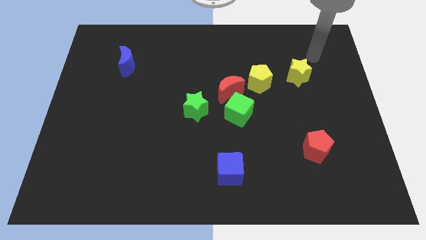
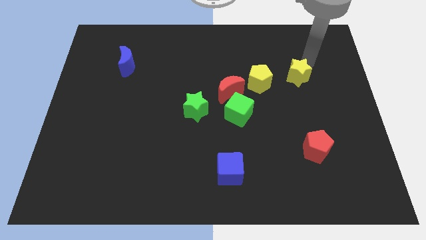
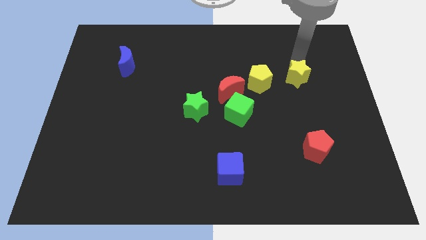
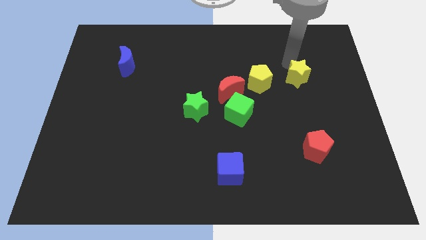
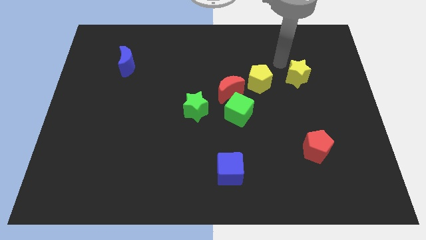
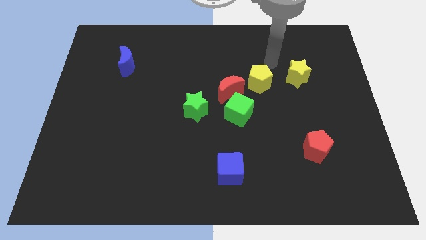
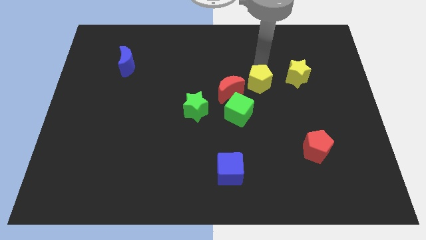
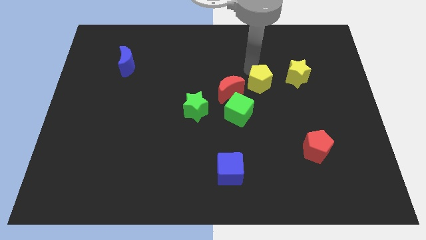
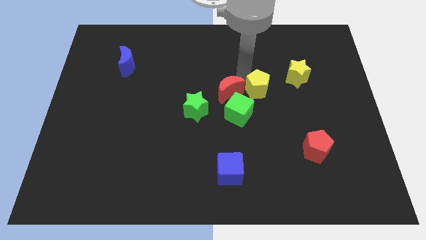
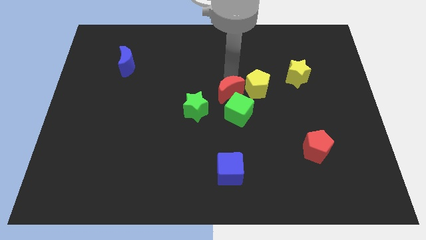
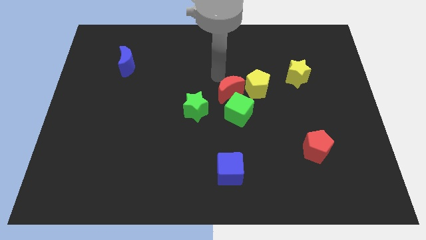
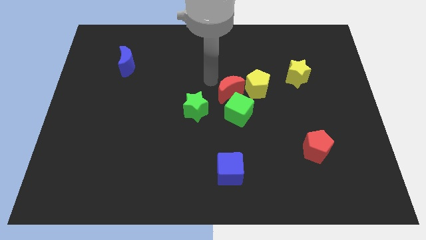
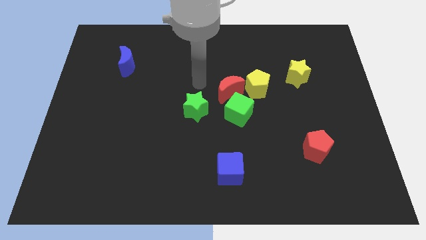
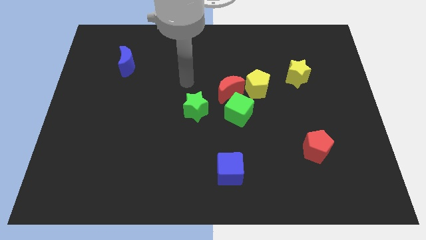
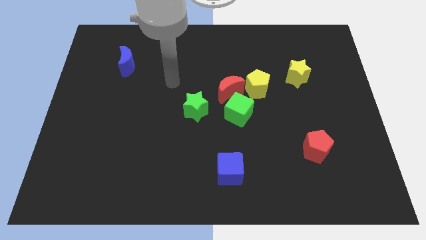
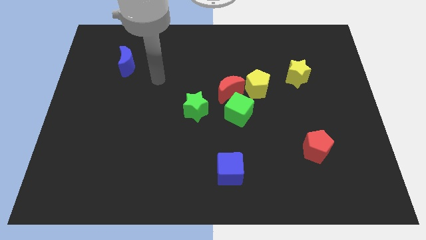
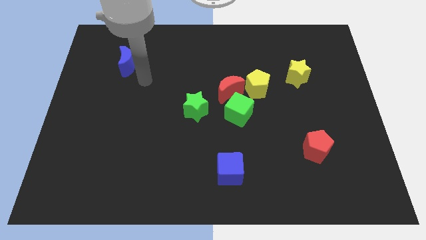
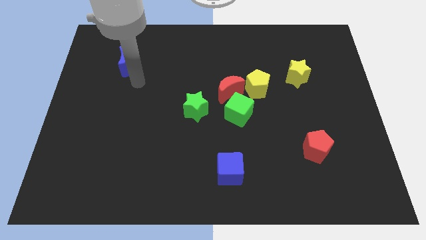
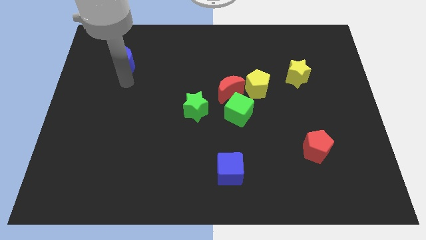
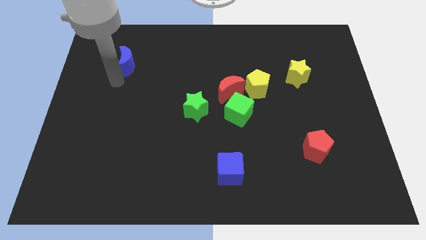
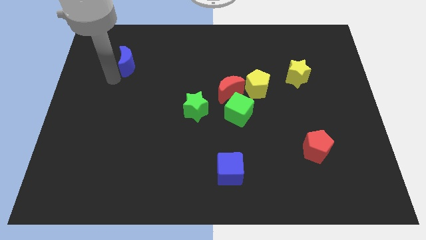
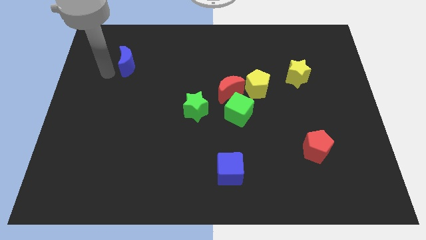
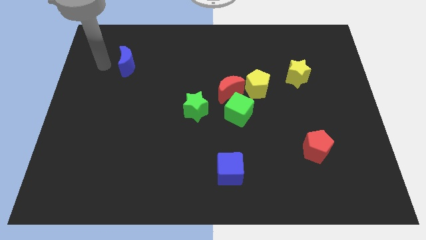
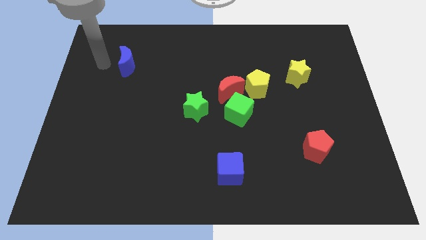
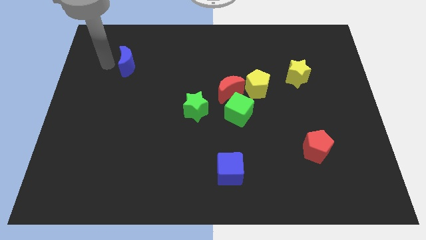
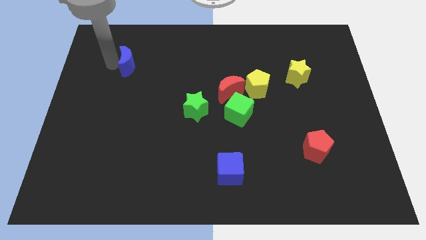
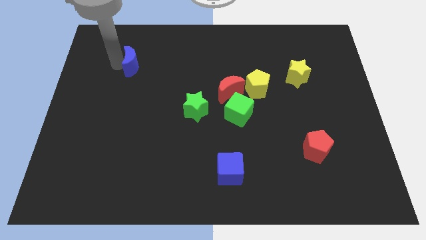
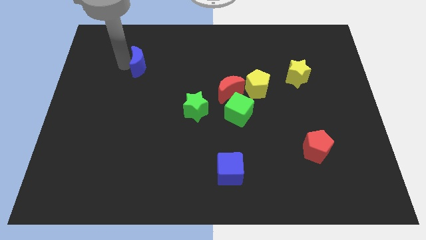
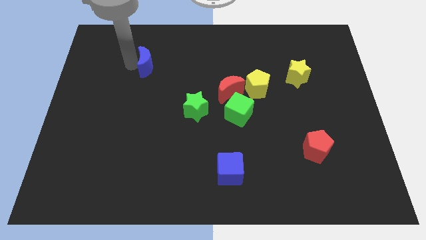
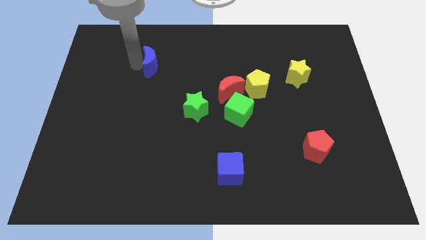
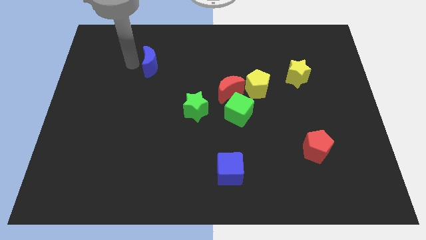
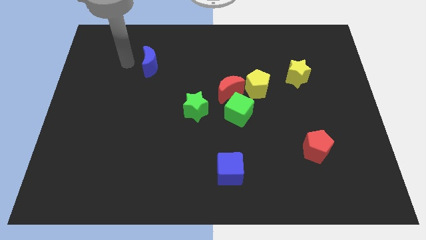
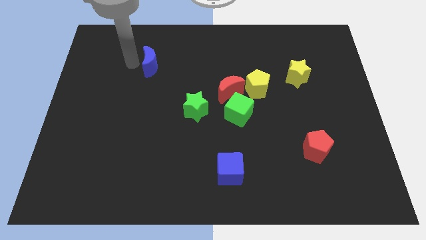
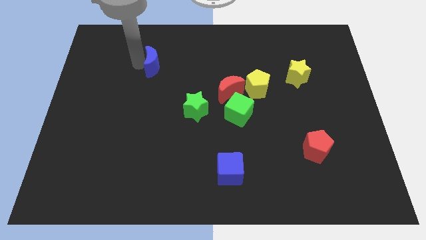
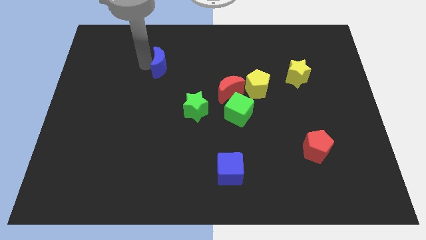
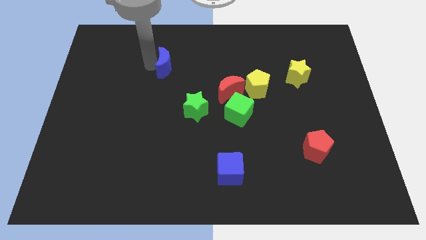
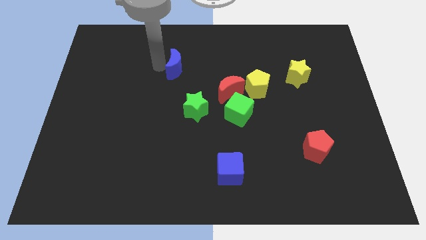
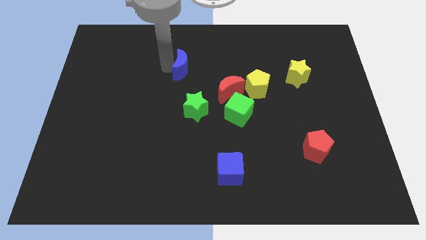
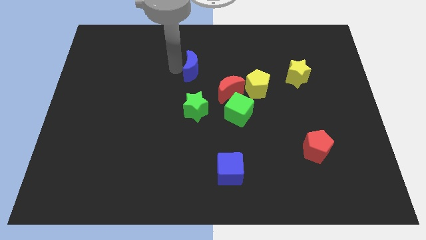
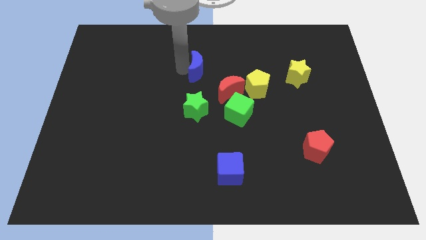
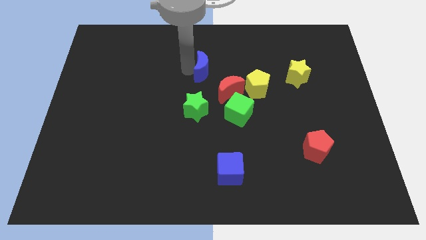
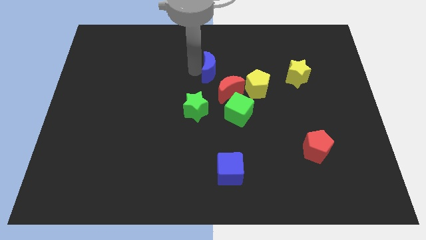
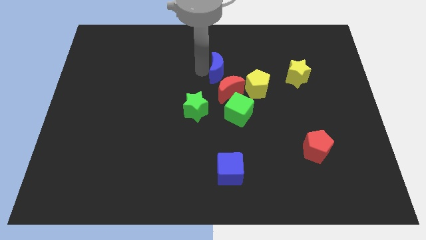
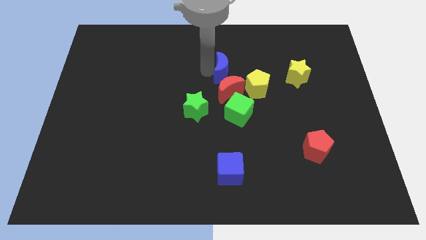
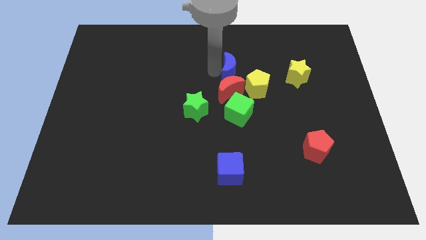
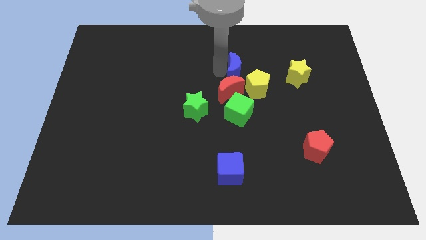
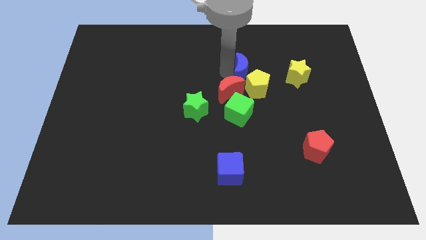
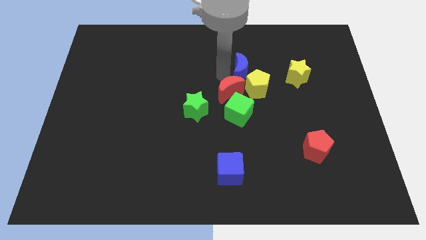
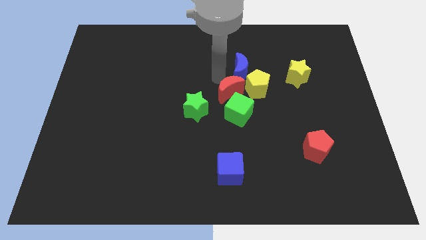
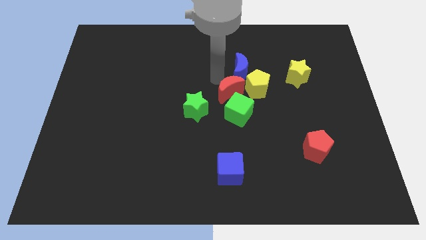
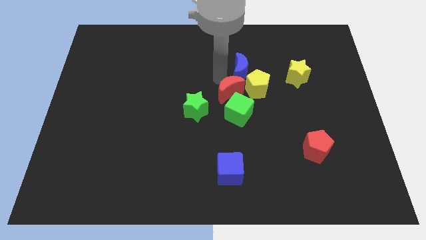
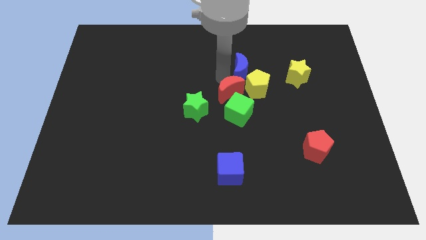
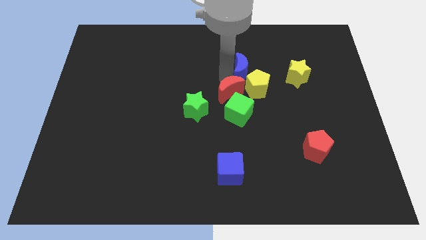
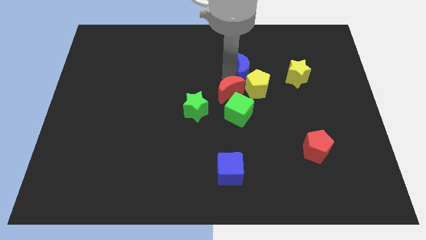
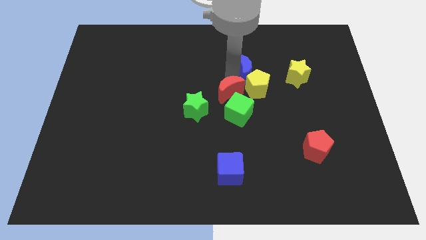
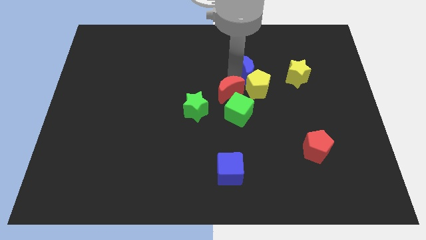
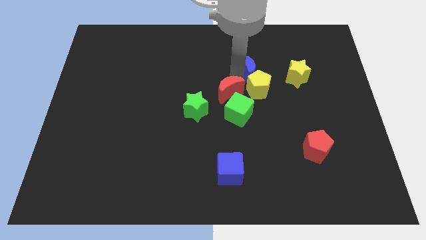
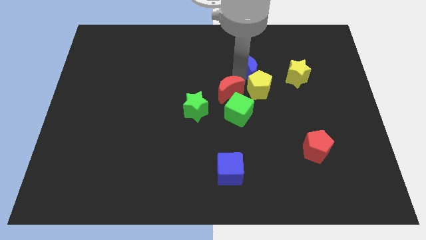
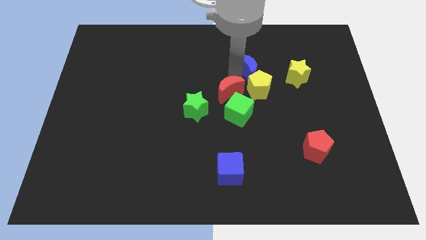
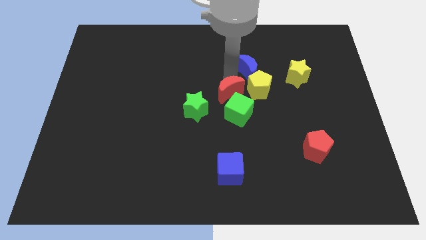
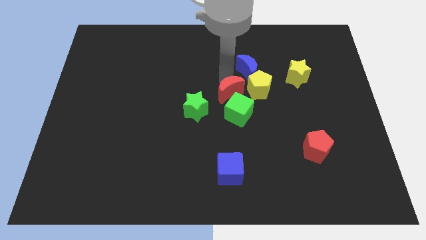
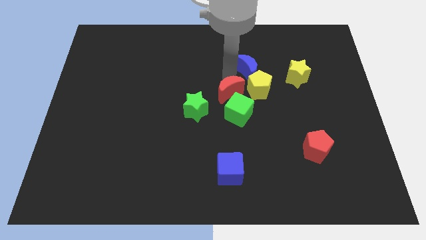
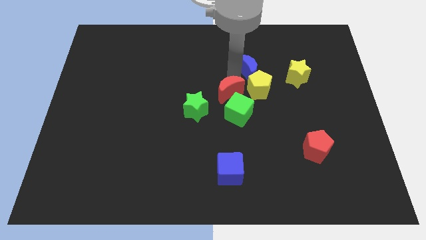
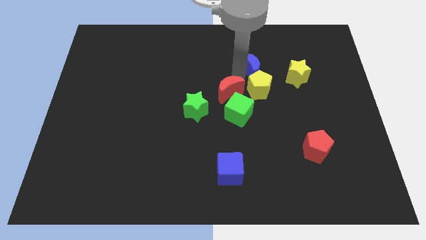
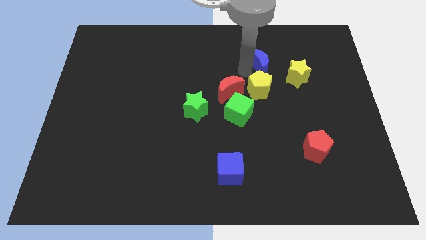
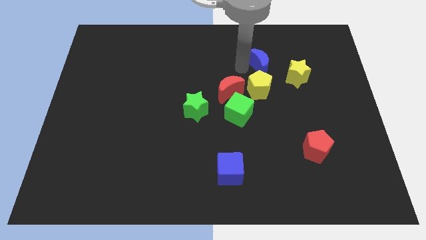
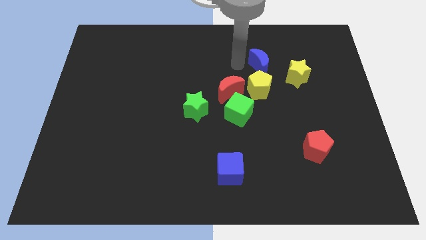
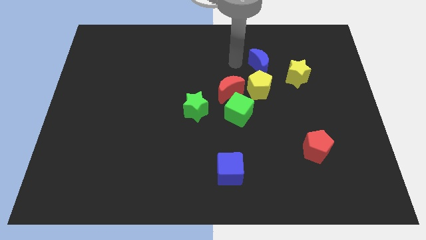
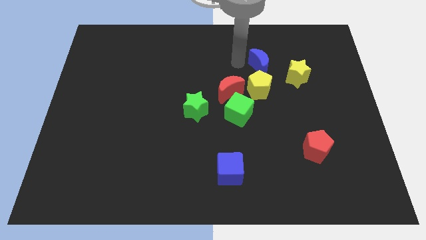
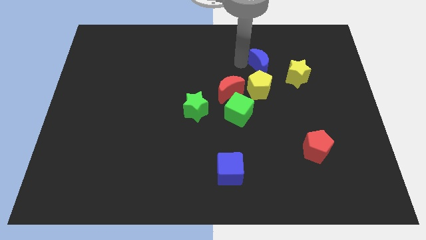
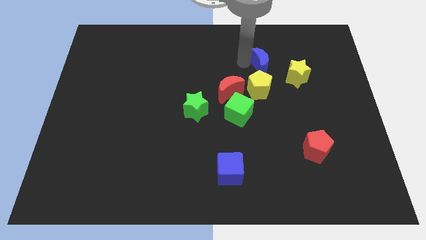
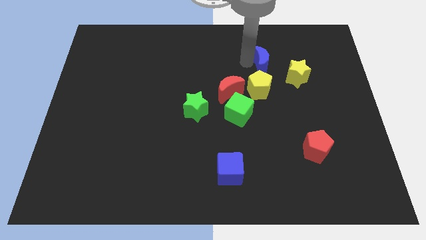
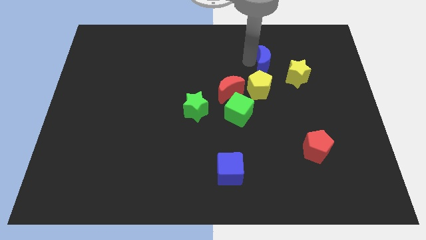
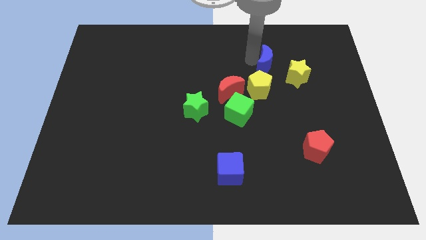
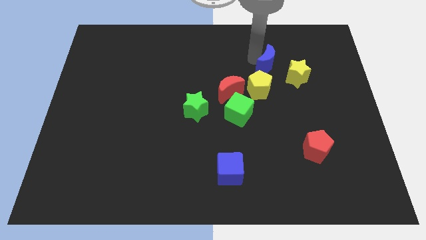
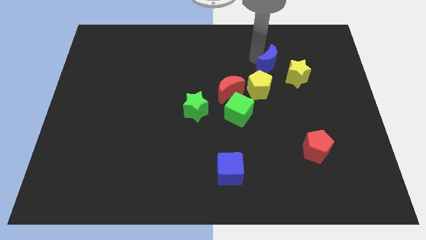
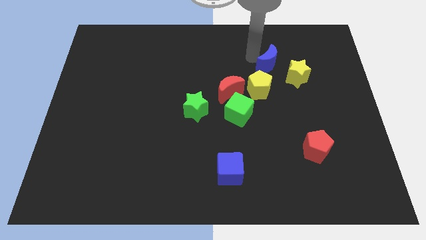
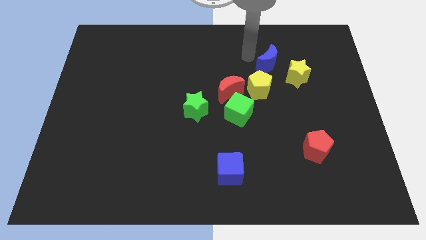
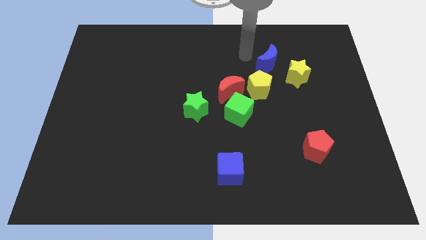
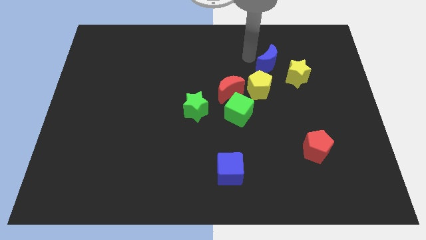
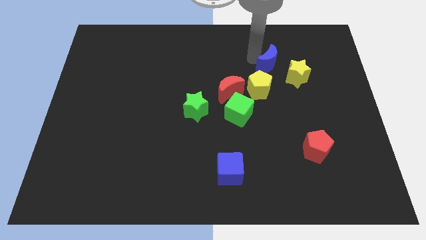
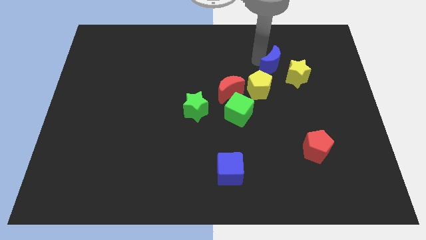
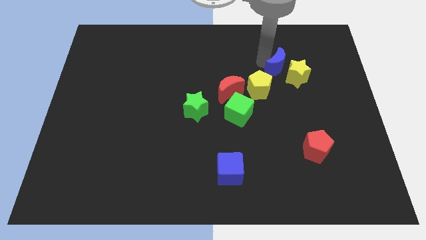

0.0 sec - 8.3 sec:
slide the blue moon next to the yellow star
